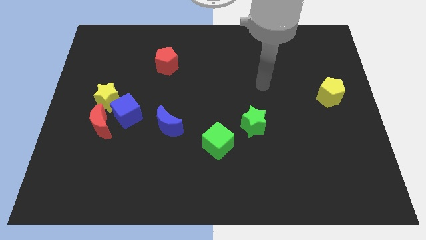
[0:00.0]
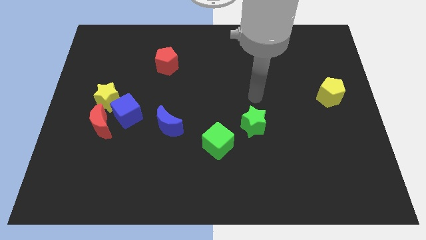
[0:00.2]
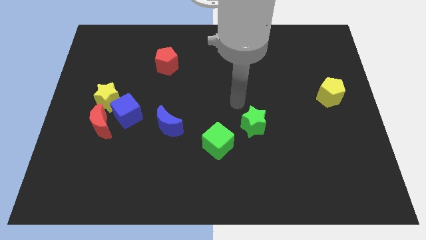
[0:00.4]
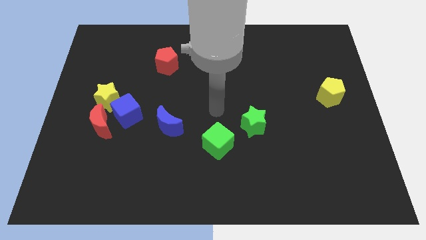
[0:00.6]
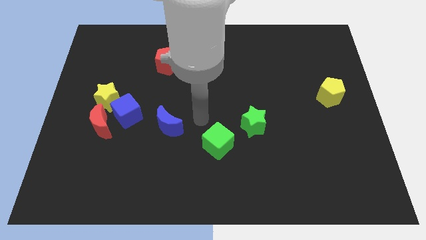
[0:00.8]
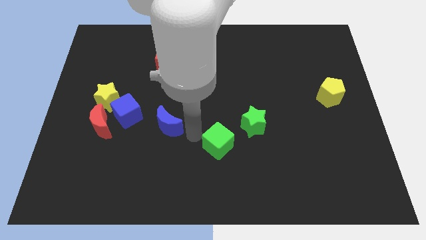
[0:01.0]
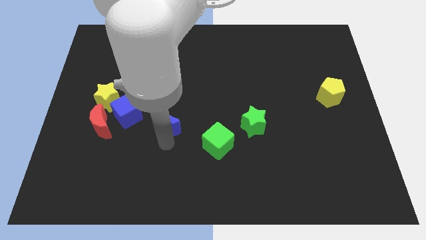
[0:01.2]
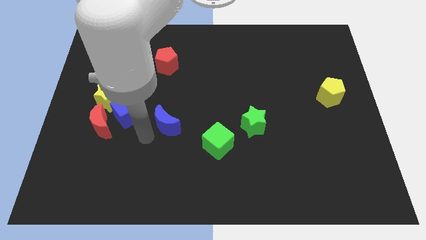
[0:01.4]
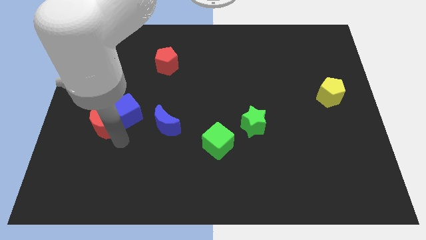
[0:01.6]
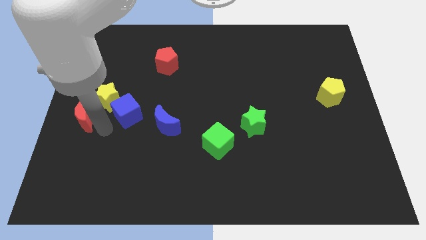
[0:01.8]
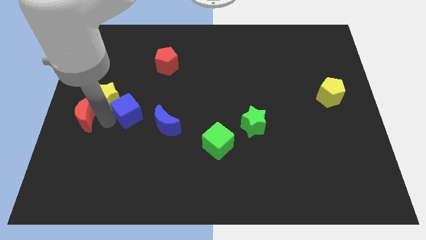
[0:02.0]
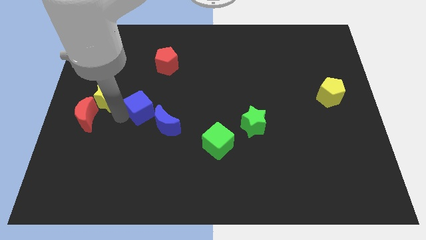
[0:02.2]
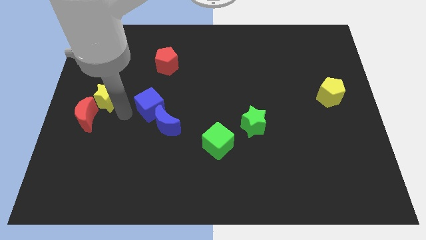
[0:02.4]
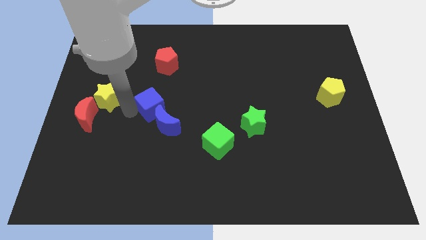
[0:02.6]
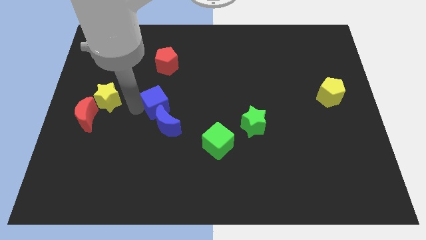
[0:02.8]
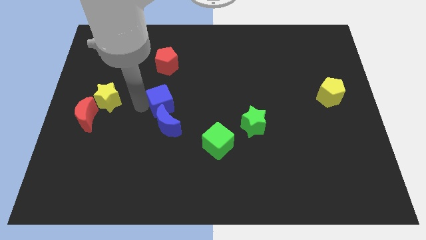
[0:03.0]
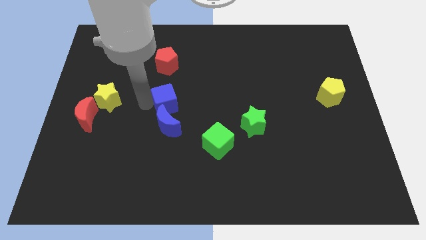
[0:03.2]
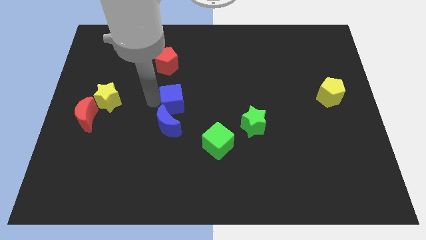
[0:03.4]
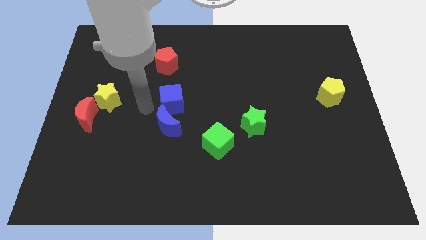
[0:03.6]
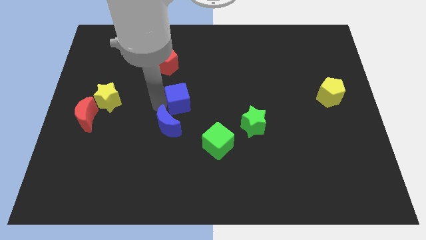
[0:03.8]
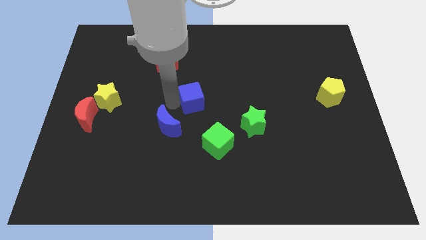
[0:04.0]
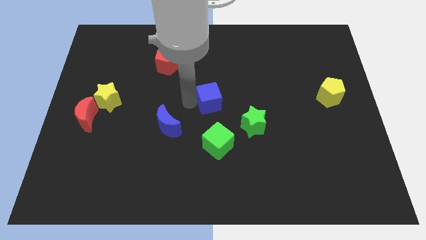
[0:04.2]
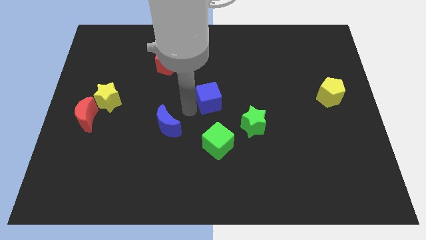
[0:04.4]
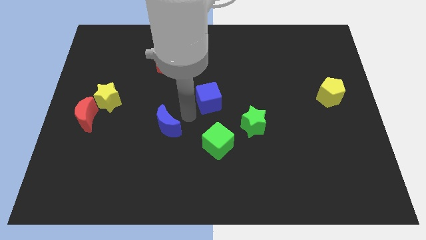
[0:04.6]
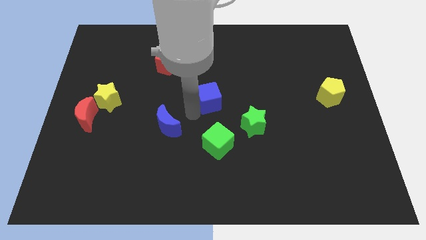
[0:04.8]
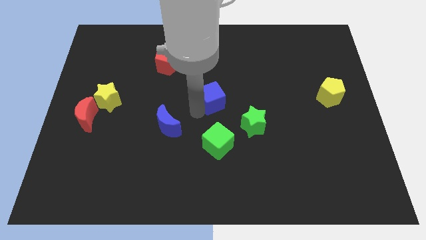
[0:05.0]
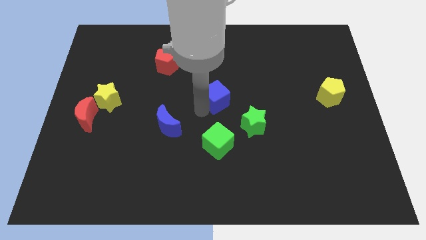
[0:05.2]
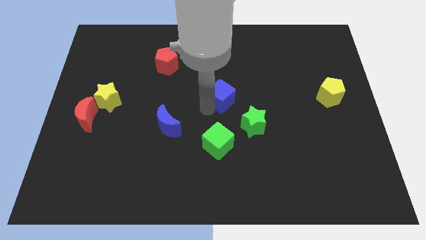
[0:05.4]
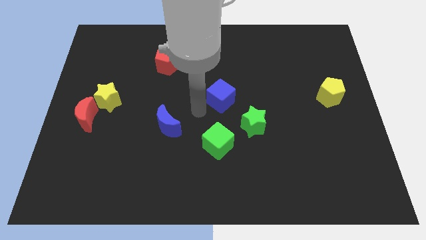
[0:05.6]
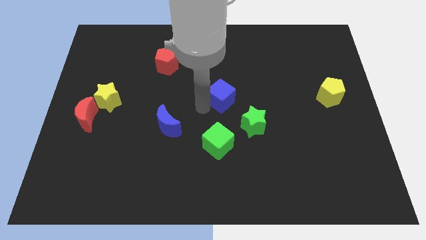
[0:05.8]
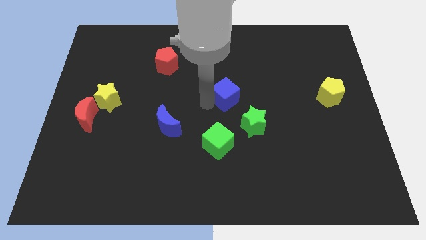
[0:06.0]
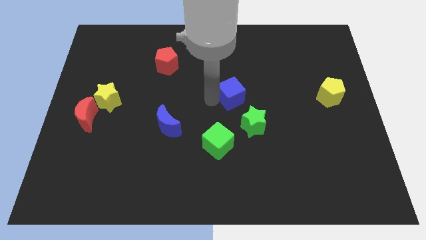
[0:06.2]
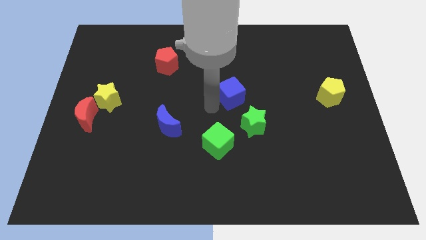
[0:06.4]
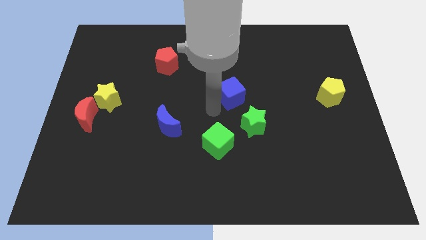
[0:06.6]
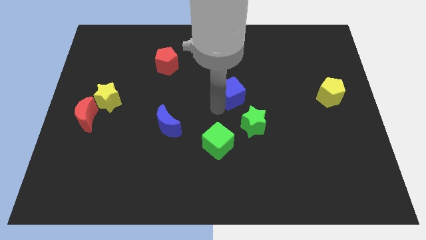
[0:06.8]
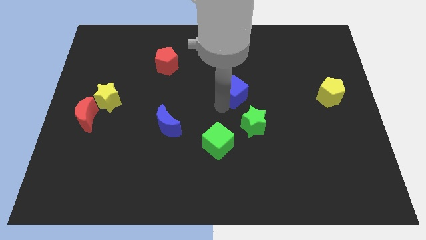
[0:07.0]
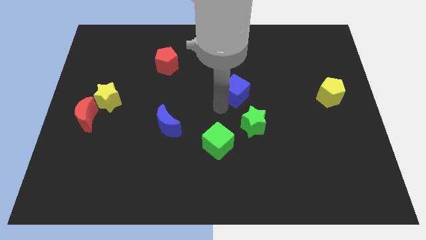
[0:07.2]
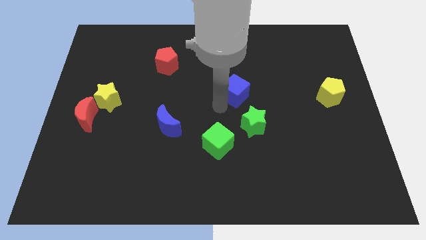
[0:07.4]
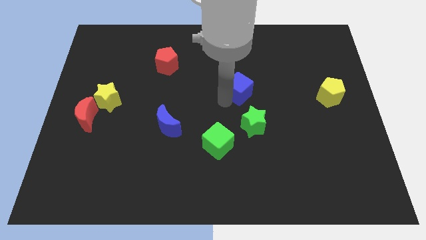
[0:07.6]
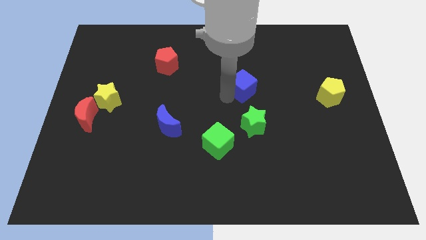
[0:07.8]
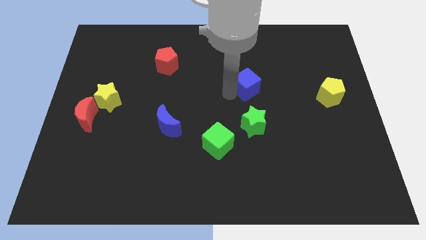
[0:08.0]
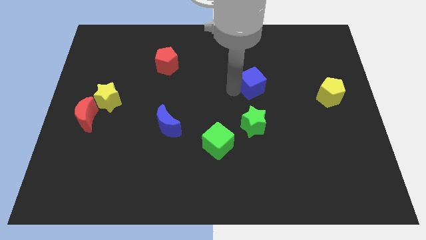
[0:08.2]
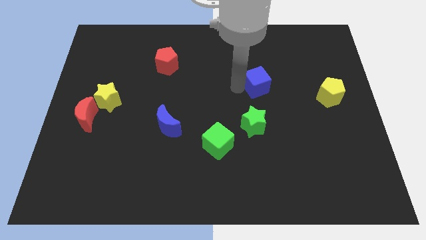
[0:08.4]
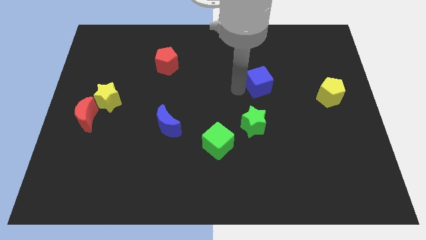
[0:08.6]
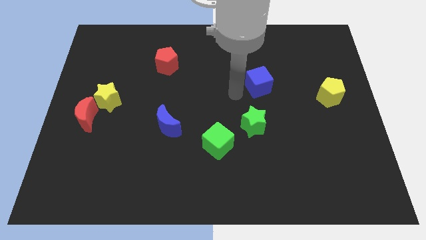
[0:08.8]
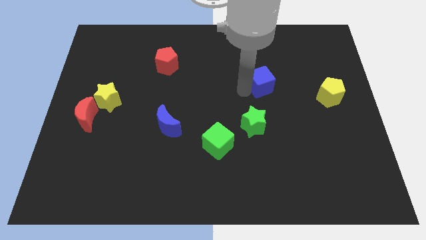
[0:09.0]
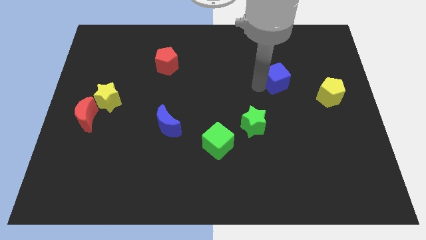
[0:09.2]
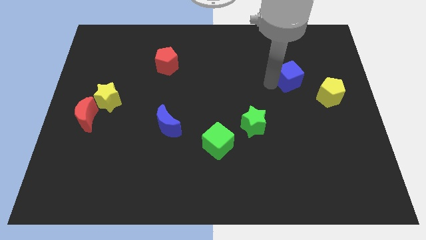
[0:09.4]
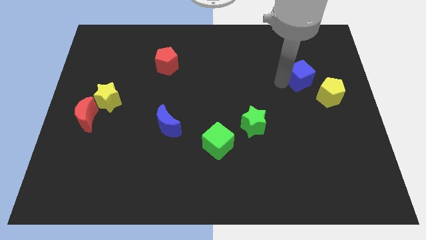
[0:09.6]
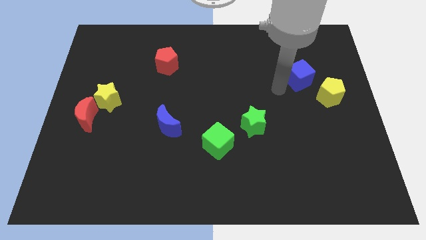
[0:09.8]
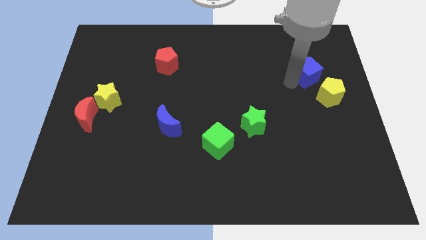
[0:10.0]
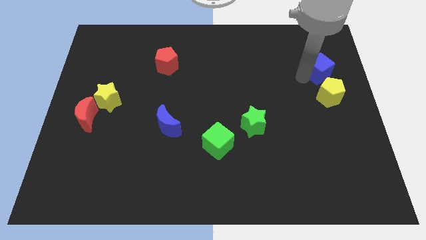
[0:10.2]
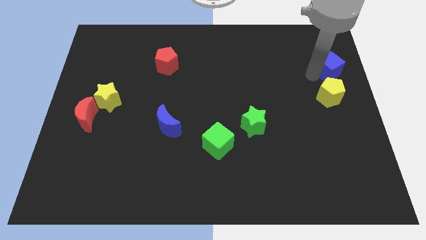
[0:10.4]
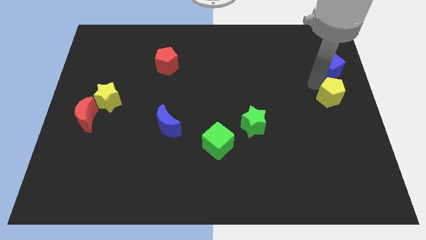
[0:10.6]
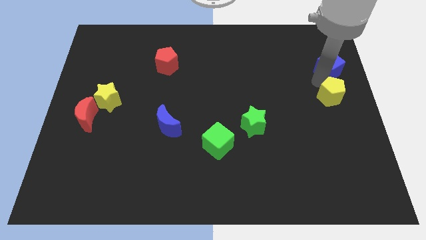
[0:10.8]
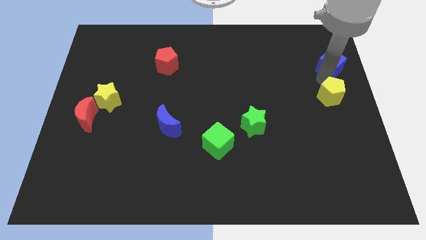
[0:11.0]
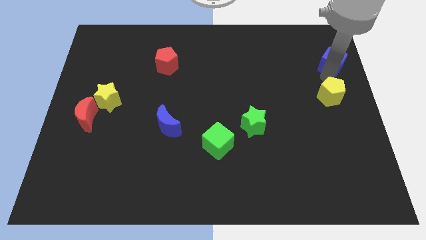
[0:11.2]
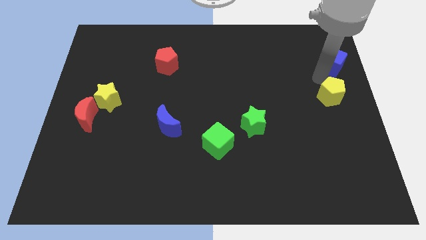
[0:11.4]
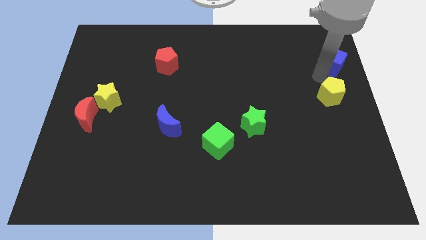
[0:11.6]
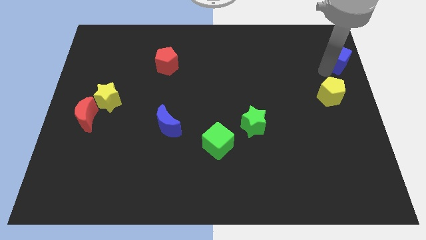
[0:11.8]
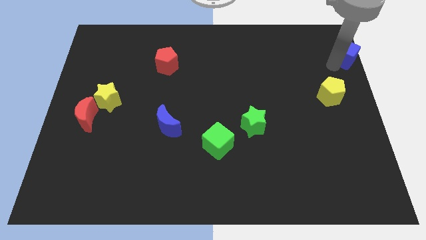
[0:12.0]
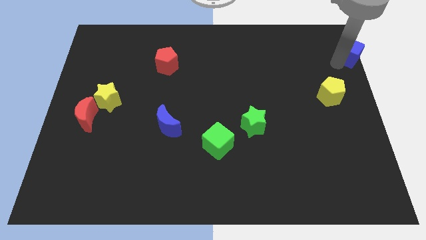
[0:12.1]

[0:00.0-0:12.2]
move the blue cube to the upper right corner

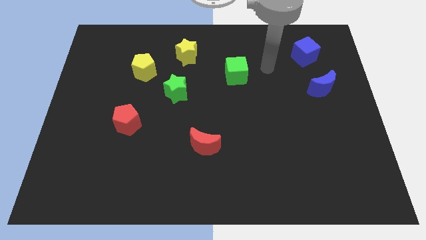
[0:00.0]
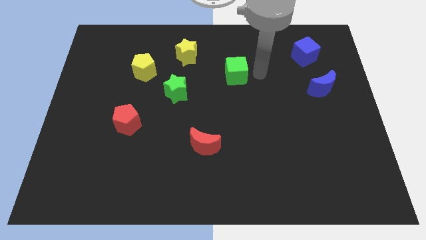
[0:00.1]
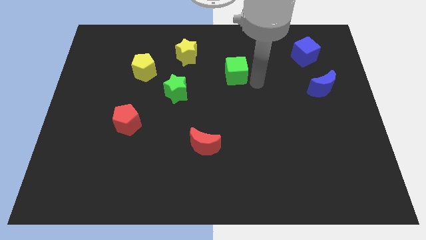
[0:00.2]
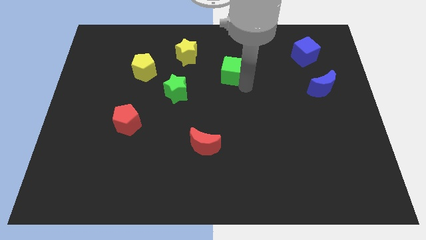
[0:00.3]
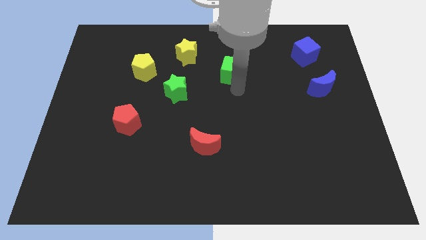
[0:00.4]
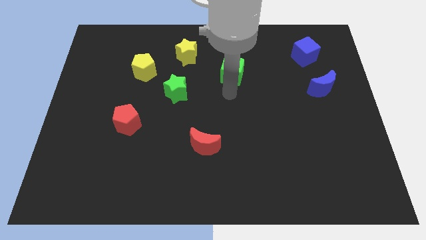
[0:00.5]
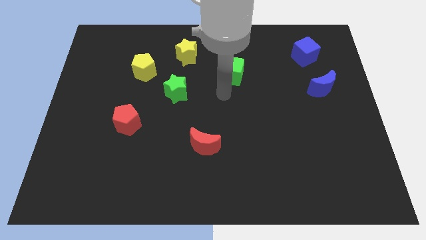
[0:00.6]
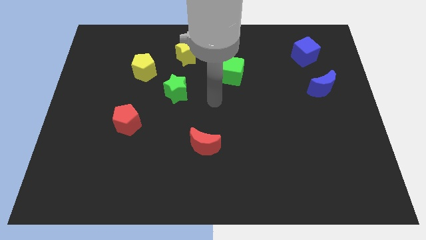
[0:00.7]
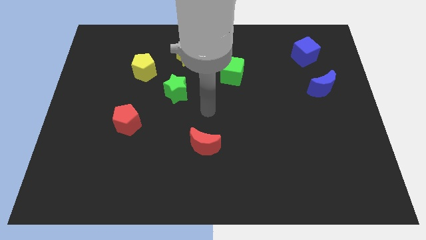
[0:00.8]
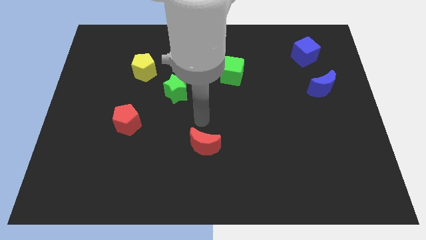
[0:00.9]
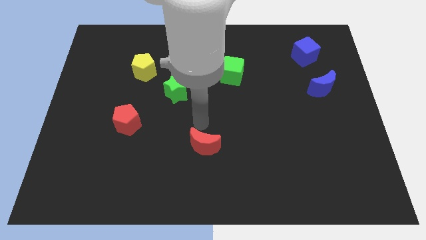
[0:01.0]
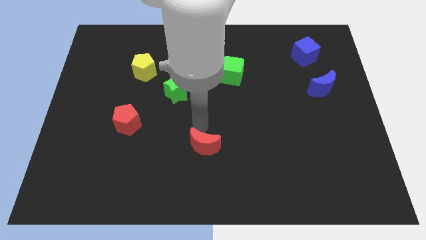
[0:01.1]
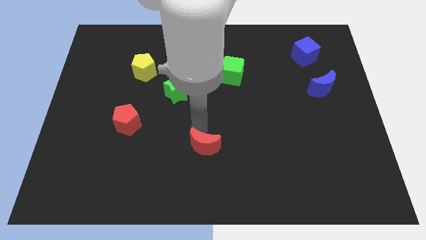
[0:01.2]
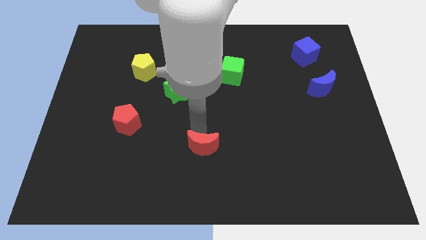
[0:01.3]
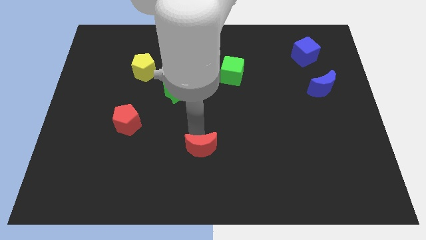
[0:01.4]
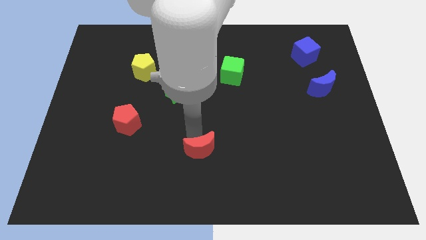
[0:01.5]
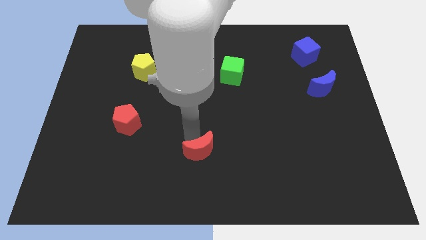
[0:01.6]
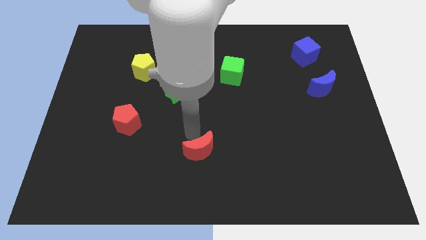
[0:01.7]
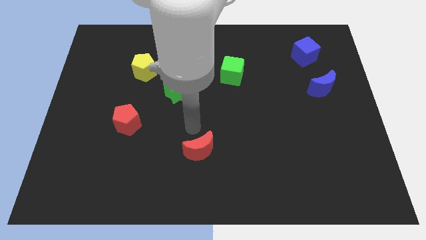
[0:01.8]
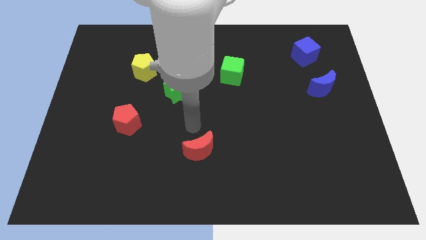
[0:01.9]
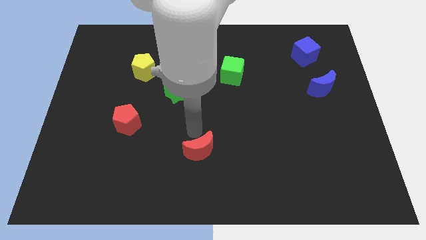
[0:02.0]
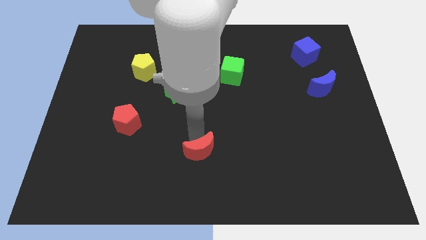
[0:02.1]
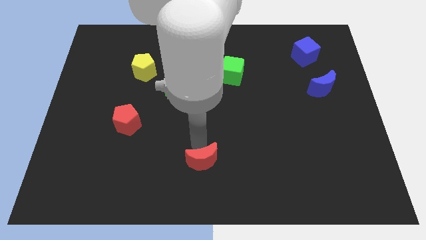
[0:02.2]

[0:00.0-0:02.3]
push the red moon to the bottom
